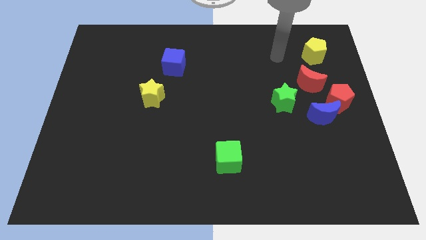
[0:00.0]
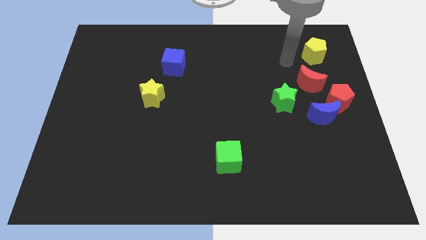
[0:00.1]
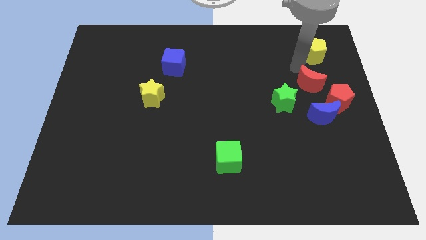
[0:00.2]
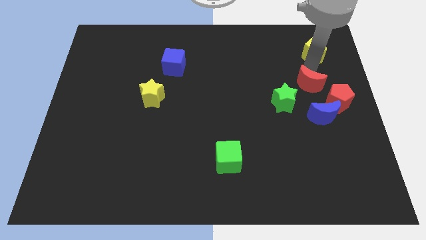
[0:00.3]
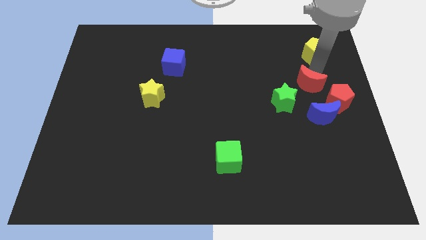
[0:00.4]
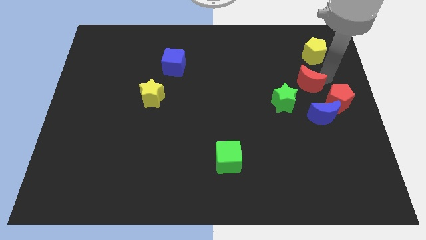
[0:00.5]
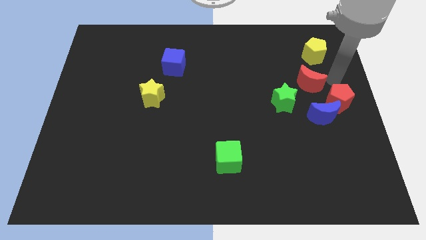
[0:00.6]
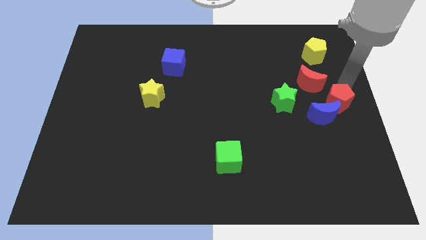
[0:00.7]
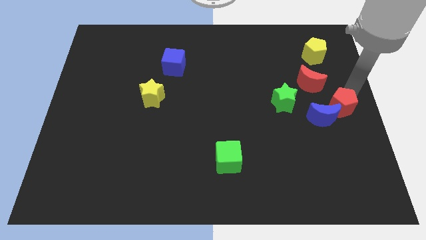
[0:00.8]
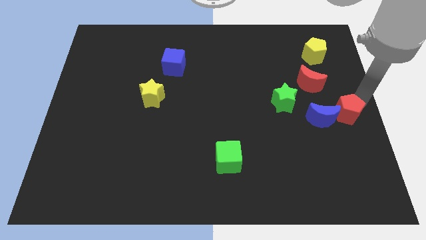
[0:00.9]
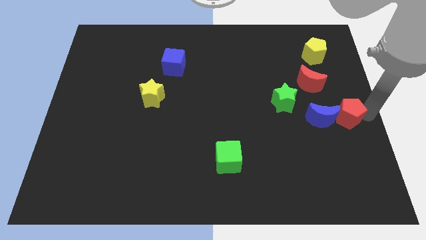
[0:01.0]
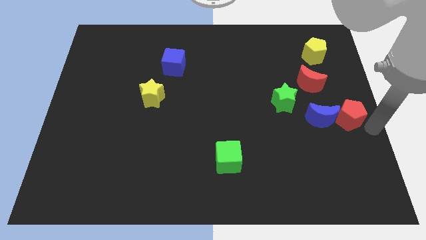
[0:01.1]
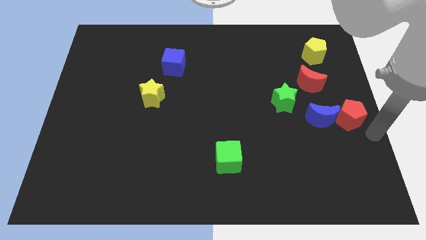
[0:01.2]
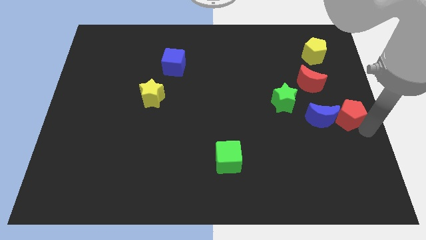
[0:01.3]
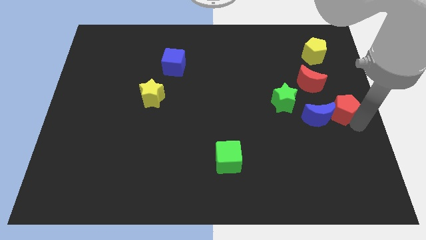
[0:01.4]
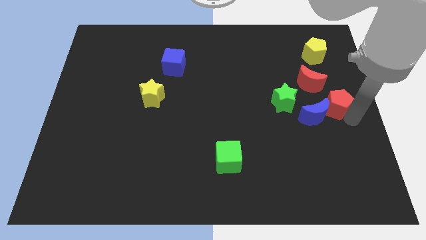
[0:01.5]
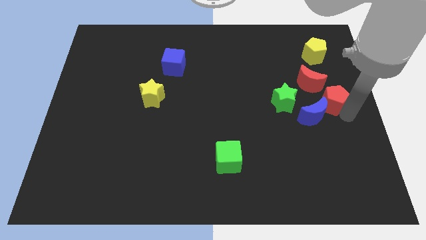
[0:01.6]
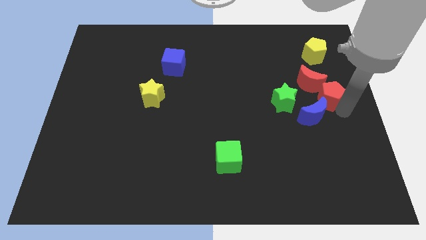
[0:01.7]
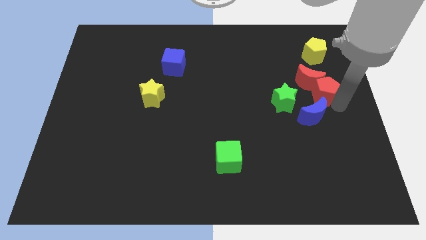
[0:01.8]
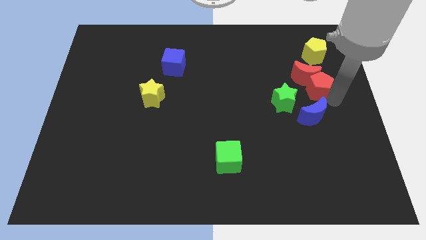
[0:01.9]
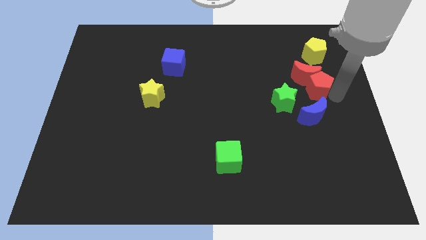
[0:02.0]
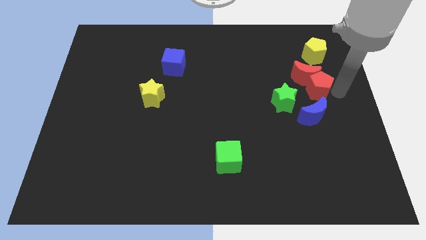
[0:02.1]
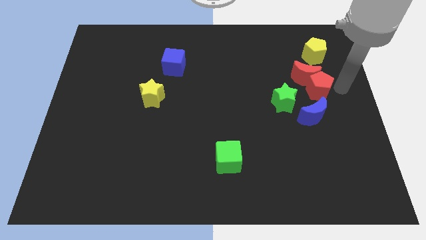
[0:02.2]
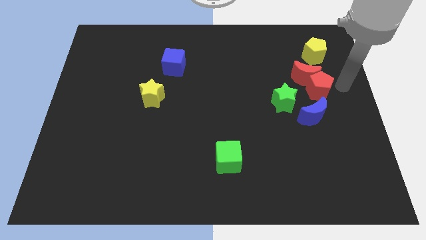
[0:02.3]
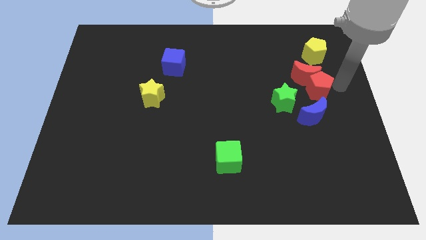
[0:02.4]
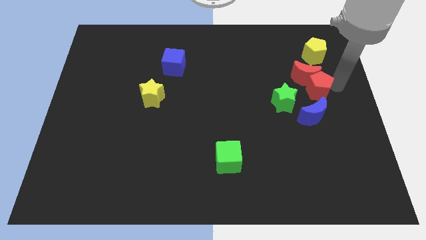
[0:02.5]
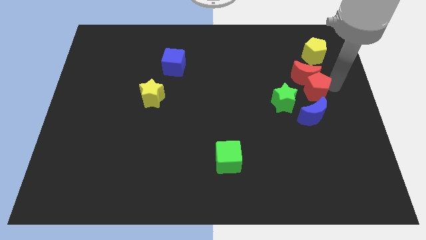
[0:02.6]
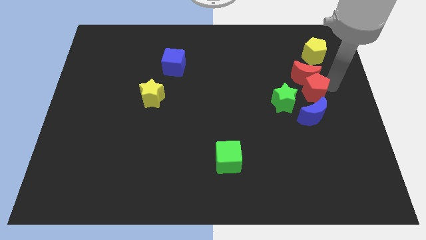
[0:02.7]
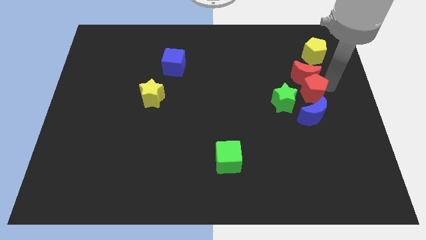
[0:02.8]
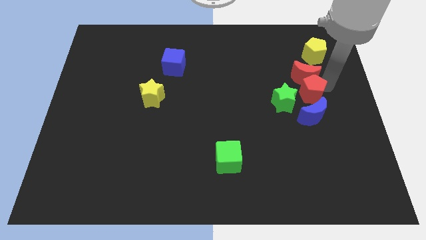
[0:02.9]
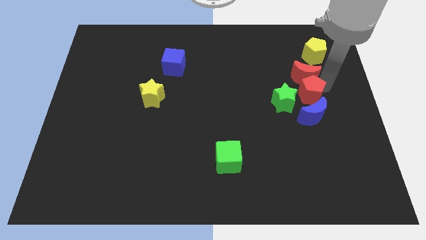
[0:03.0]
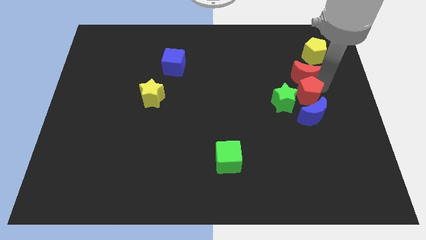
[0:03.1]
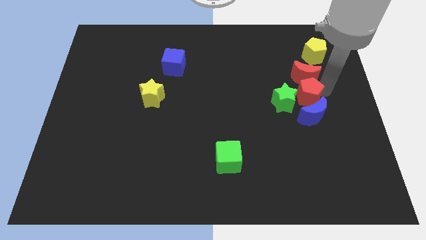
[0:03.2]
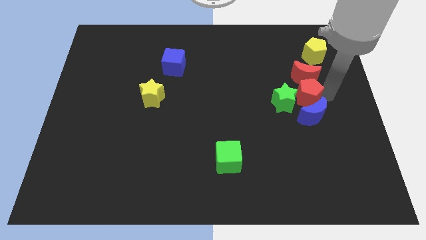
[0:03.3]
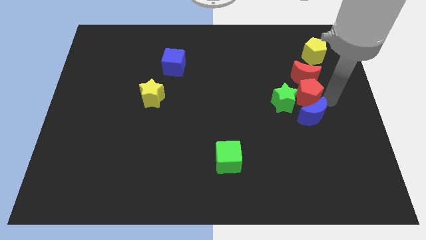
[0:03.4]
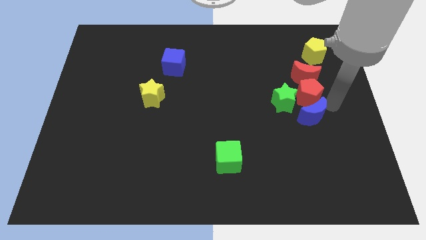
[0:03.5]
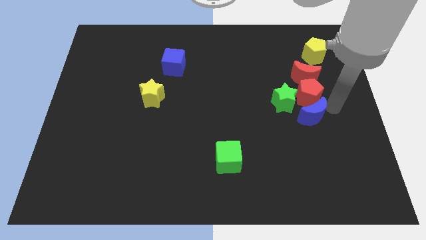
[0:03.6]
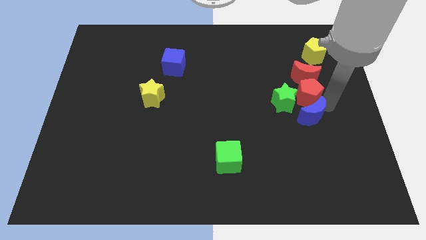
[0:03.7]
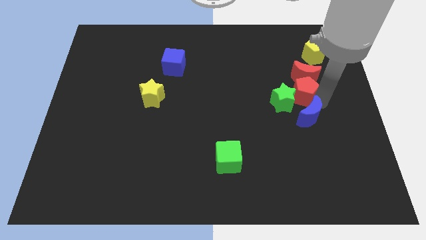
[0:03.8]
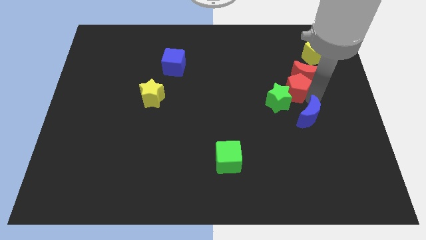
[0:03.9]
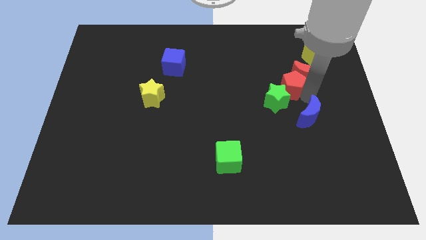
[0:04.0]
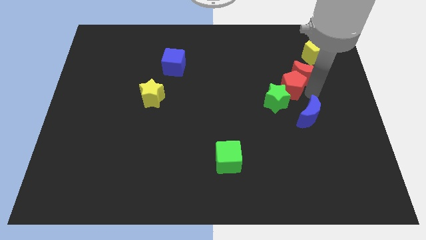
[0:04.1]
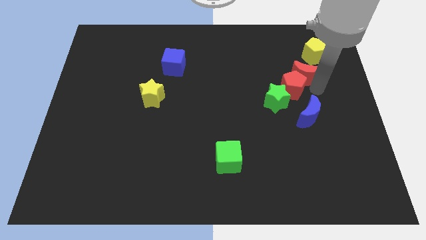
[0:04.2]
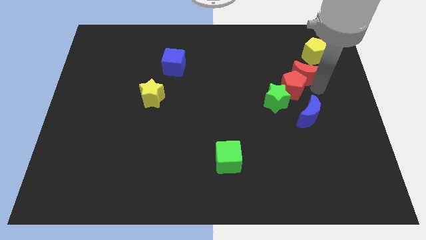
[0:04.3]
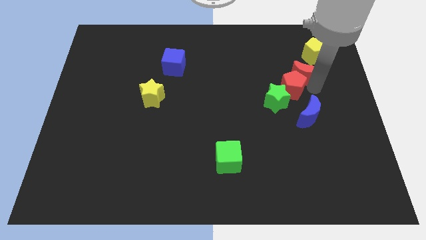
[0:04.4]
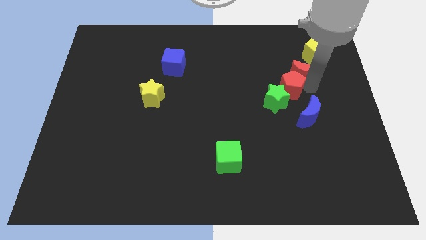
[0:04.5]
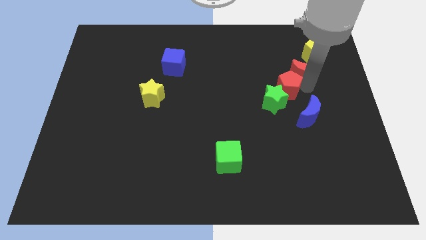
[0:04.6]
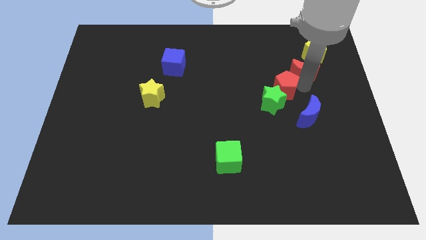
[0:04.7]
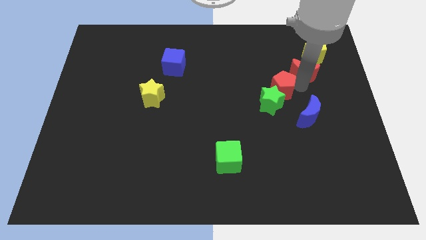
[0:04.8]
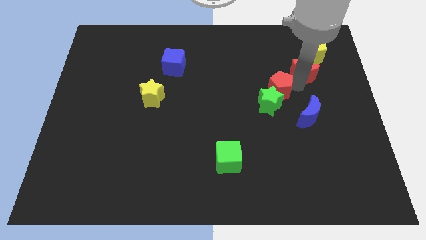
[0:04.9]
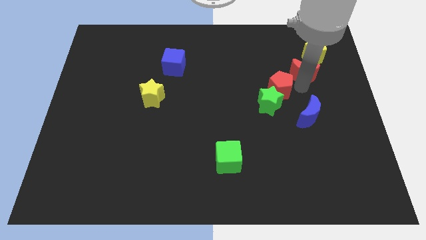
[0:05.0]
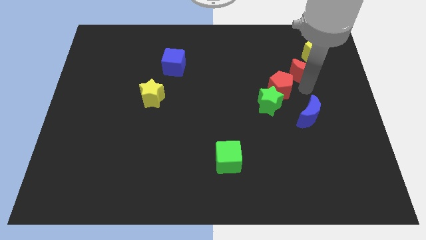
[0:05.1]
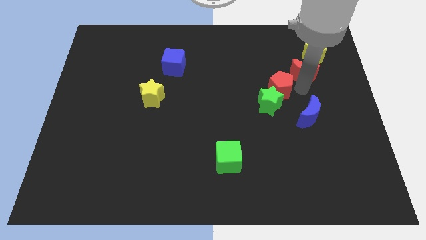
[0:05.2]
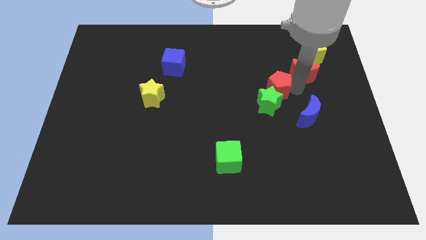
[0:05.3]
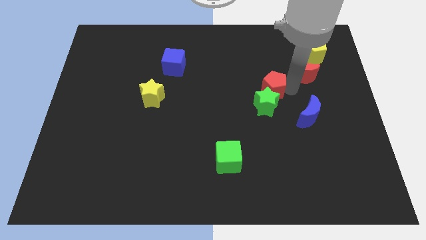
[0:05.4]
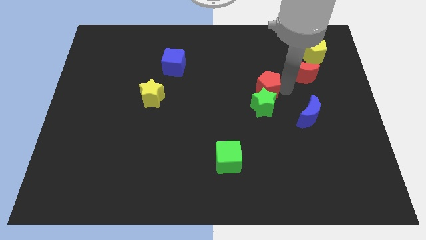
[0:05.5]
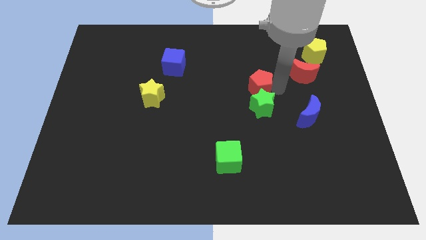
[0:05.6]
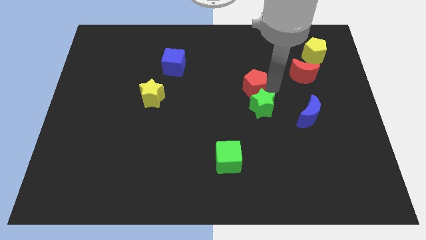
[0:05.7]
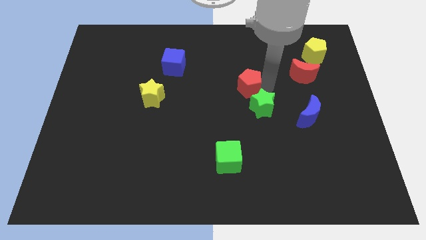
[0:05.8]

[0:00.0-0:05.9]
move the red pentagon left

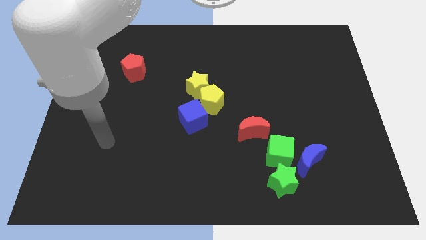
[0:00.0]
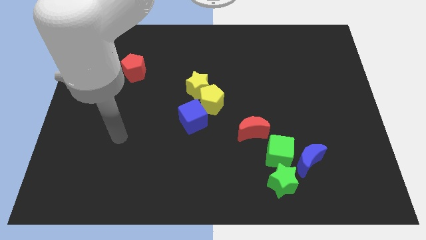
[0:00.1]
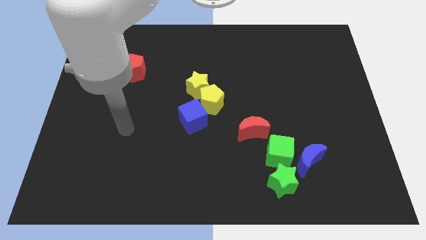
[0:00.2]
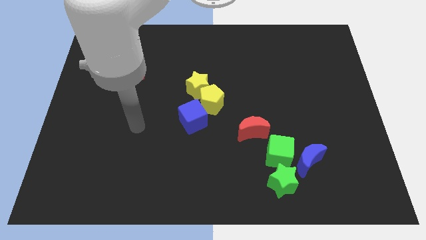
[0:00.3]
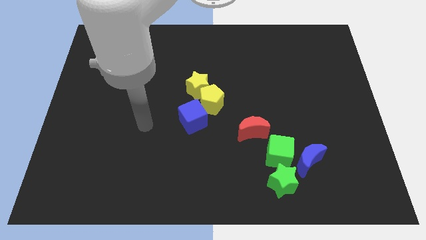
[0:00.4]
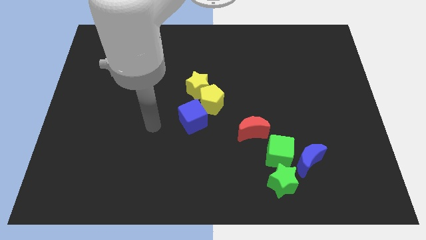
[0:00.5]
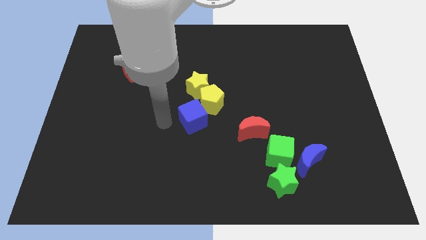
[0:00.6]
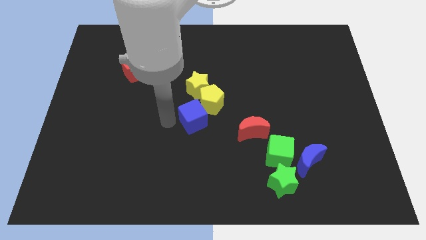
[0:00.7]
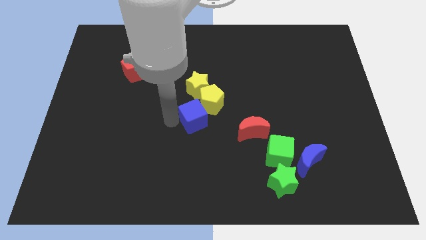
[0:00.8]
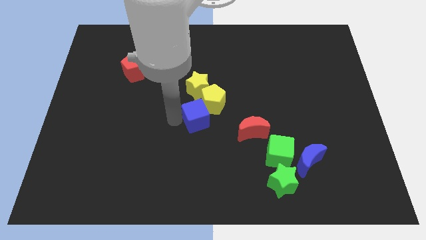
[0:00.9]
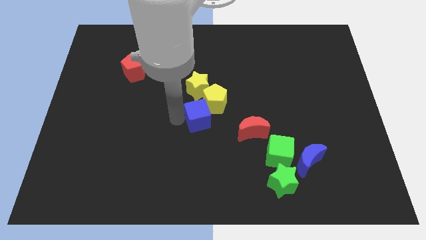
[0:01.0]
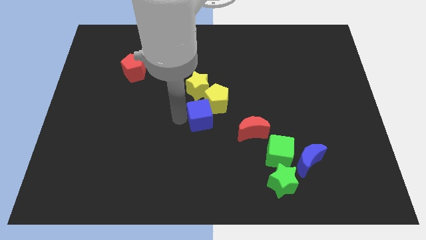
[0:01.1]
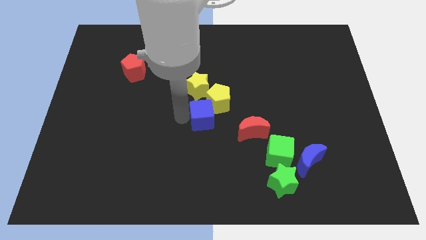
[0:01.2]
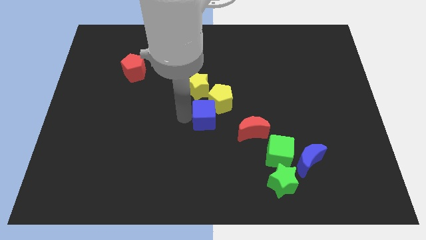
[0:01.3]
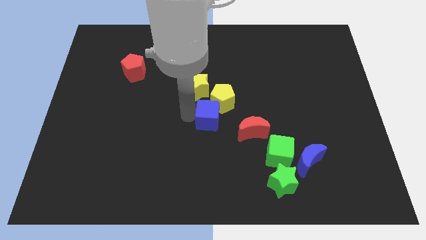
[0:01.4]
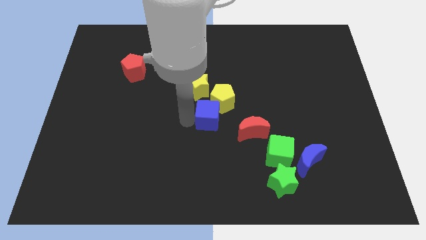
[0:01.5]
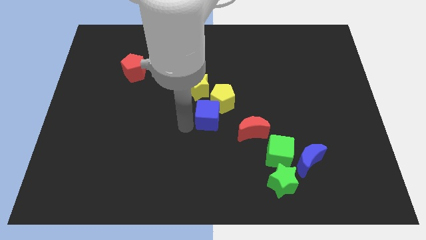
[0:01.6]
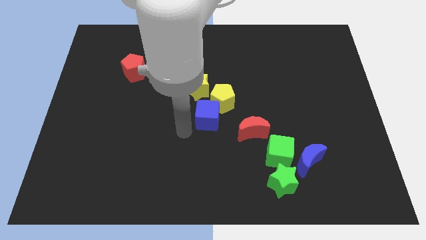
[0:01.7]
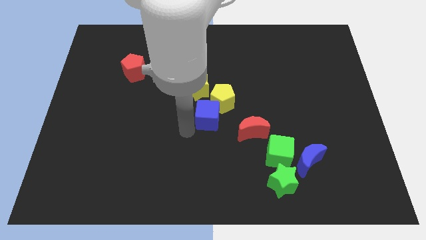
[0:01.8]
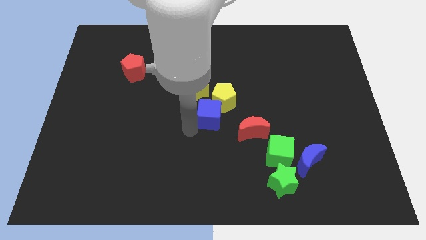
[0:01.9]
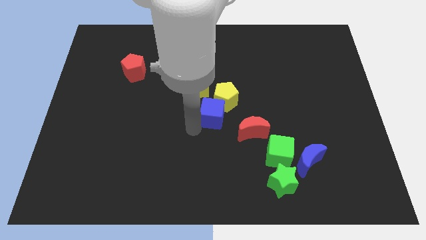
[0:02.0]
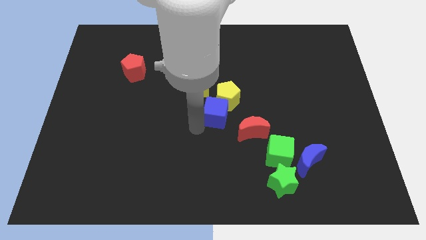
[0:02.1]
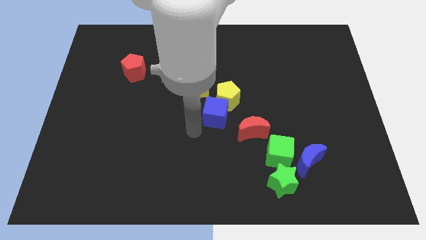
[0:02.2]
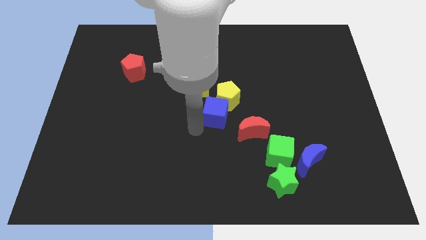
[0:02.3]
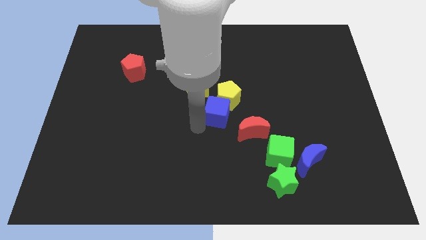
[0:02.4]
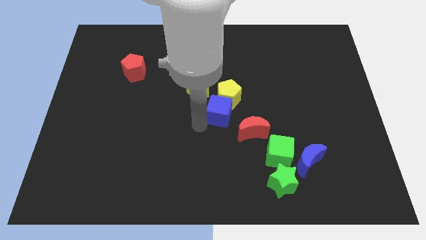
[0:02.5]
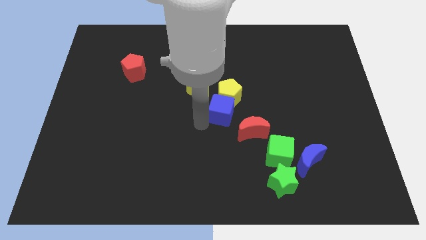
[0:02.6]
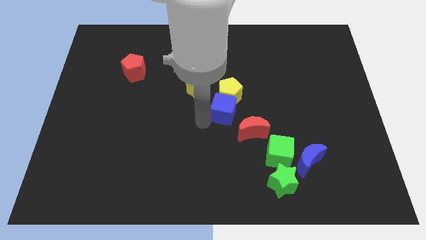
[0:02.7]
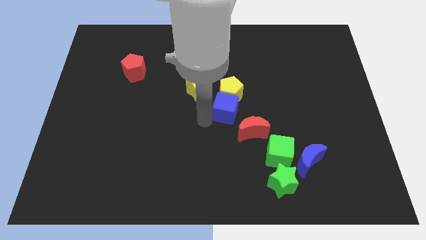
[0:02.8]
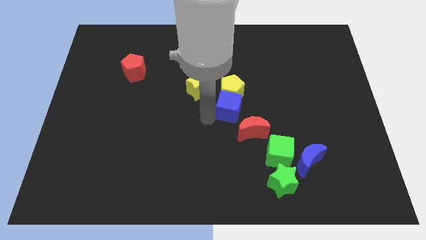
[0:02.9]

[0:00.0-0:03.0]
push the blue cube upwards and then right somewhat
